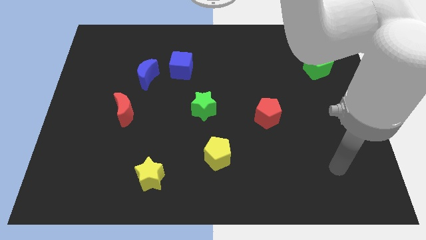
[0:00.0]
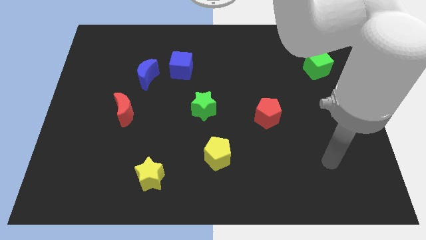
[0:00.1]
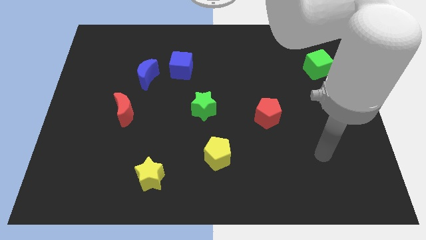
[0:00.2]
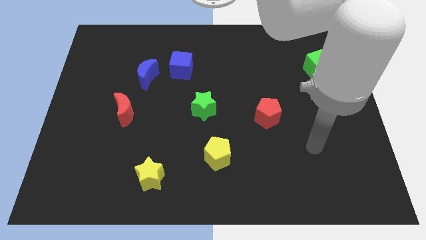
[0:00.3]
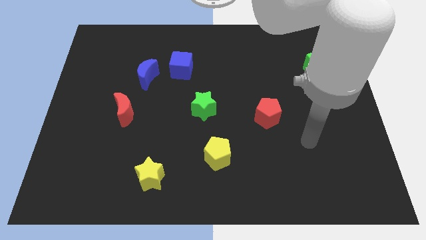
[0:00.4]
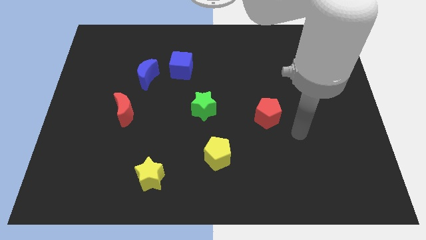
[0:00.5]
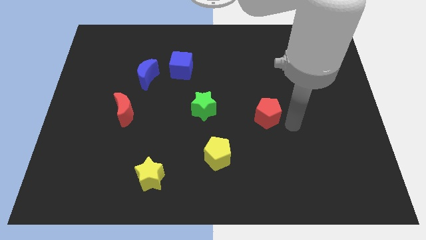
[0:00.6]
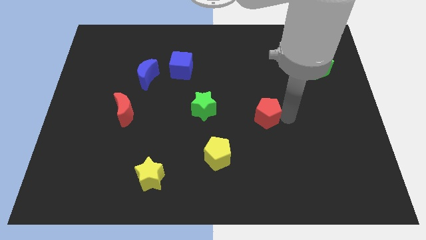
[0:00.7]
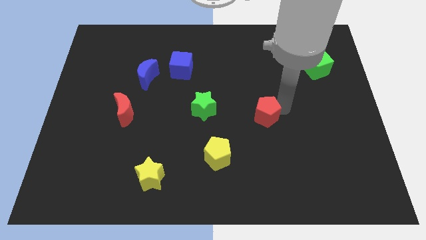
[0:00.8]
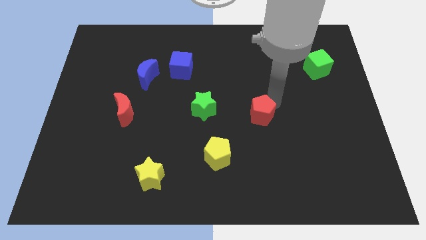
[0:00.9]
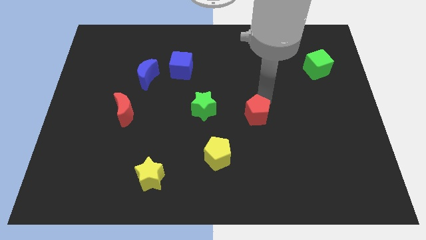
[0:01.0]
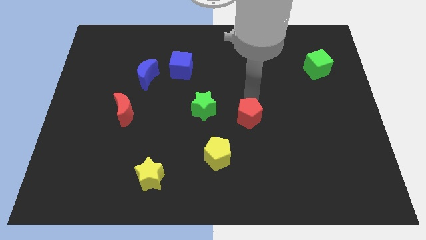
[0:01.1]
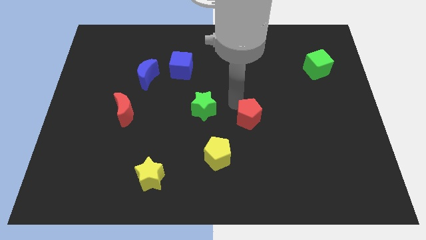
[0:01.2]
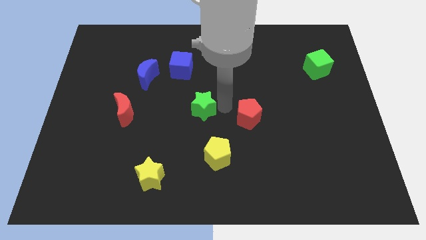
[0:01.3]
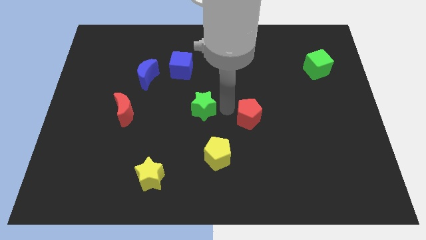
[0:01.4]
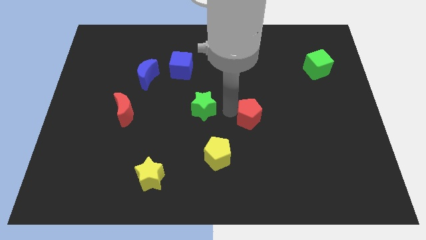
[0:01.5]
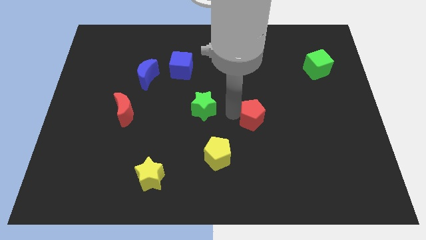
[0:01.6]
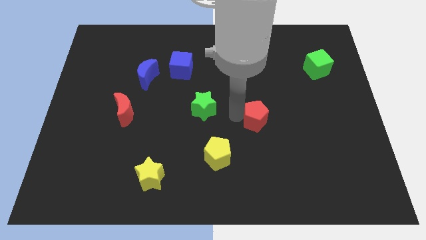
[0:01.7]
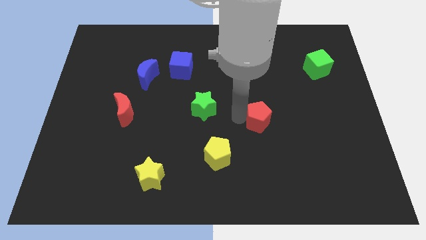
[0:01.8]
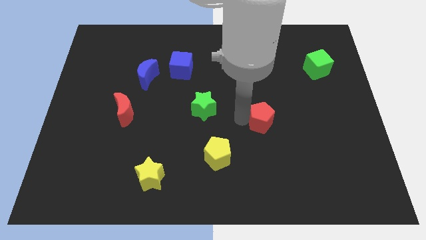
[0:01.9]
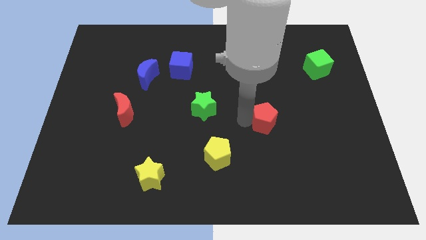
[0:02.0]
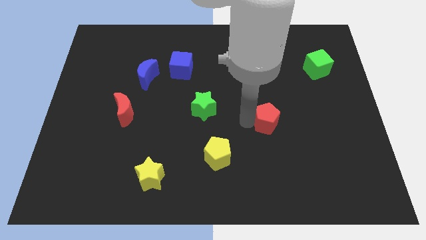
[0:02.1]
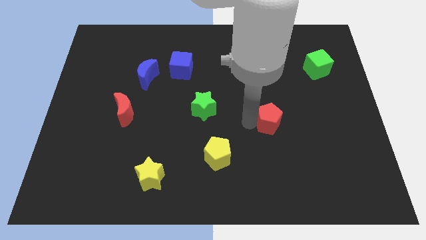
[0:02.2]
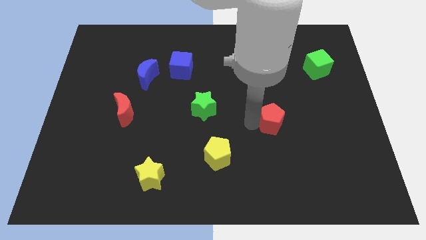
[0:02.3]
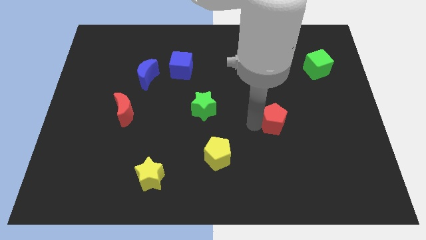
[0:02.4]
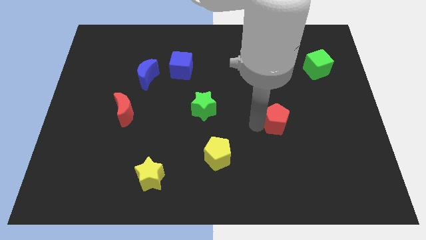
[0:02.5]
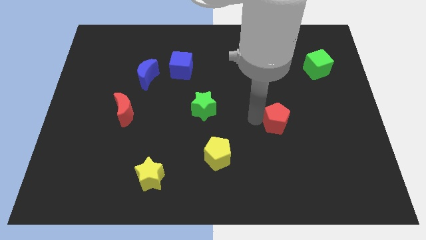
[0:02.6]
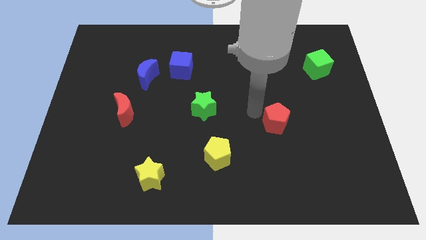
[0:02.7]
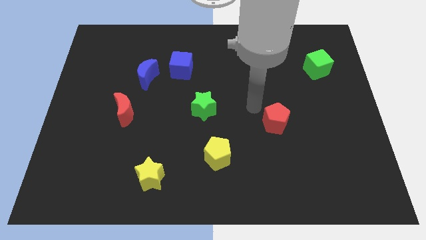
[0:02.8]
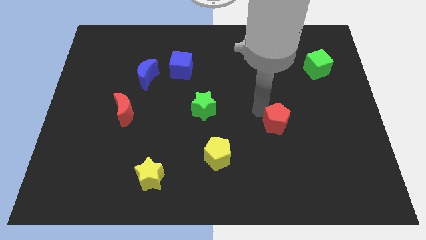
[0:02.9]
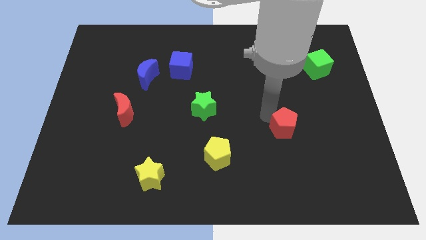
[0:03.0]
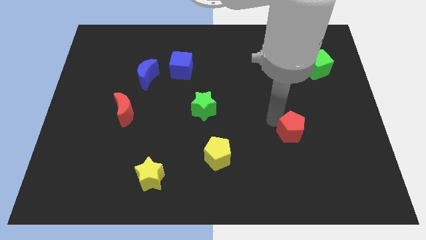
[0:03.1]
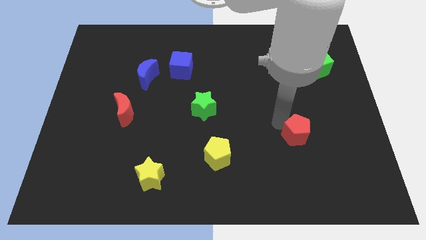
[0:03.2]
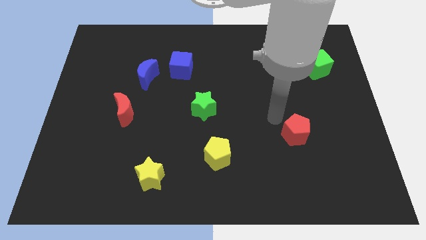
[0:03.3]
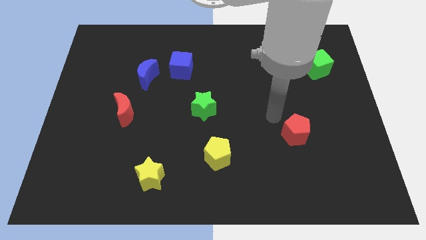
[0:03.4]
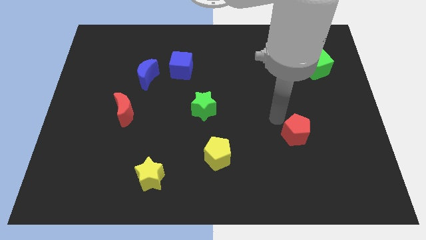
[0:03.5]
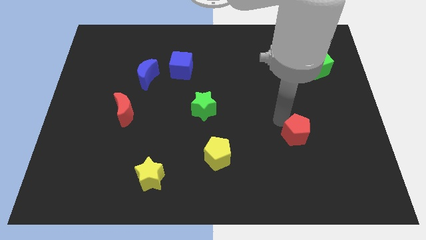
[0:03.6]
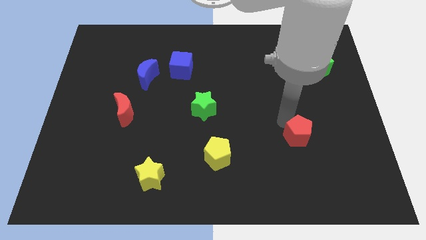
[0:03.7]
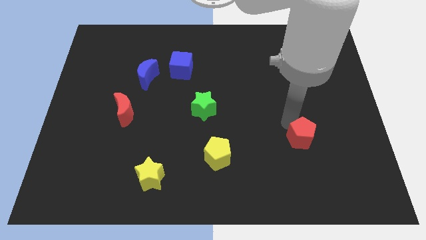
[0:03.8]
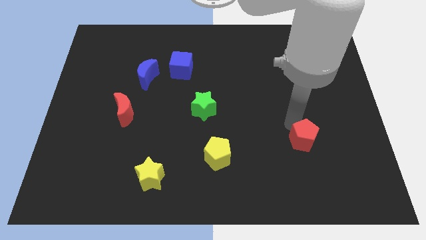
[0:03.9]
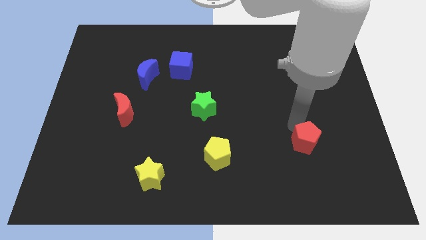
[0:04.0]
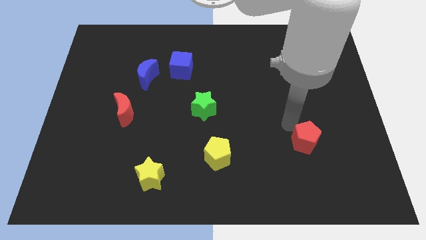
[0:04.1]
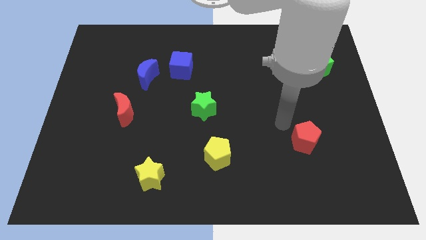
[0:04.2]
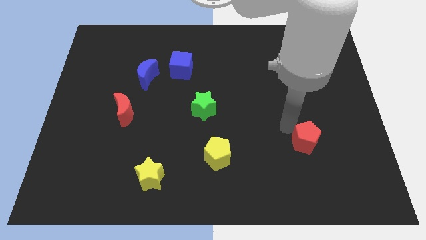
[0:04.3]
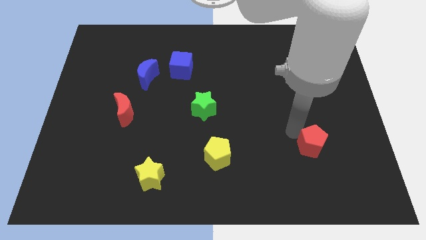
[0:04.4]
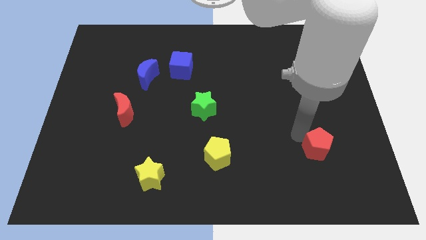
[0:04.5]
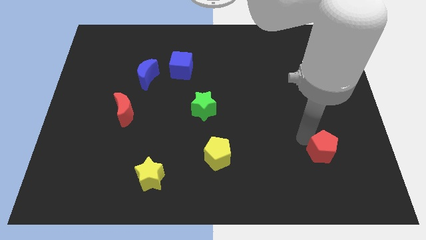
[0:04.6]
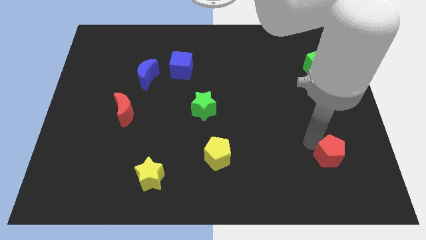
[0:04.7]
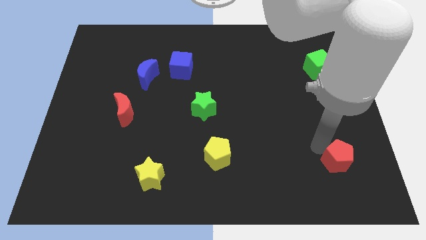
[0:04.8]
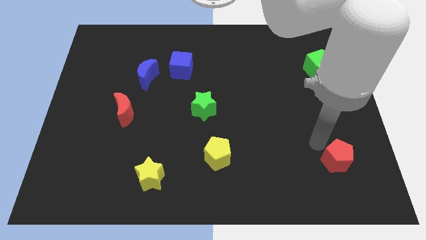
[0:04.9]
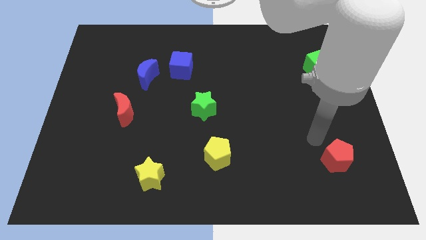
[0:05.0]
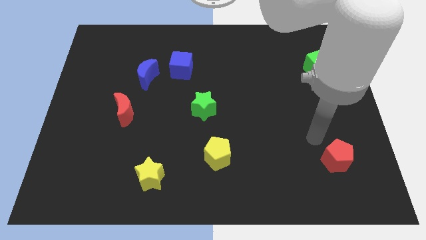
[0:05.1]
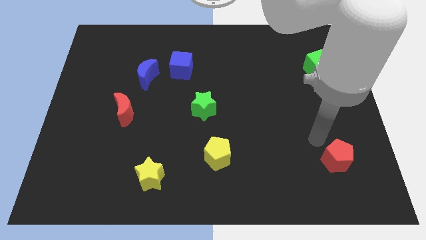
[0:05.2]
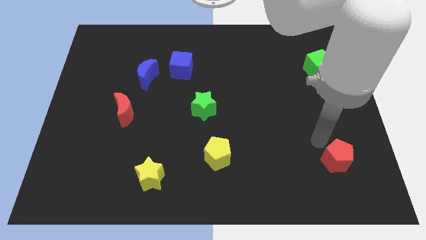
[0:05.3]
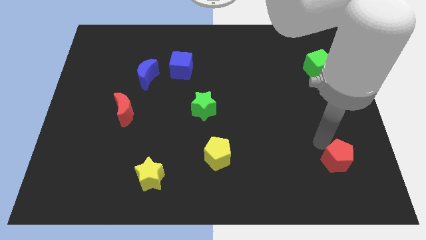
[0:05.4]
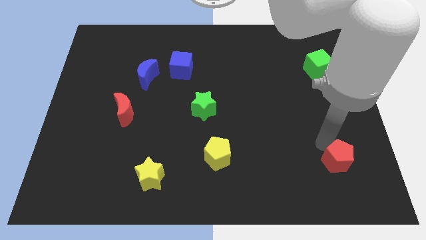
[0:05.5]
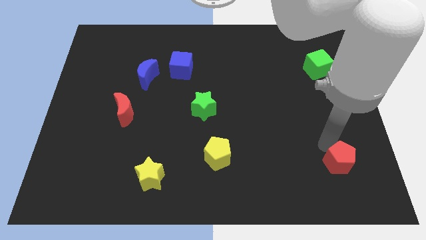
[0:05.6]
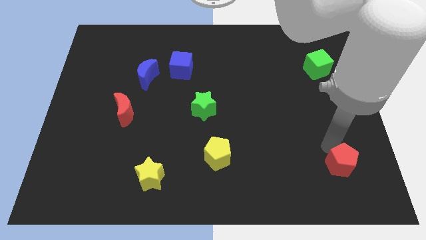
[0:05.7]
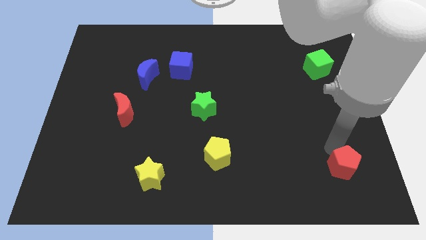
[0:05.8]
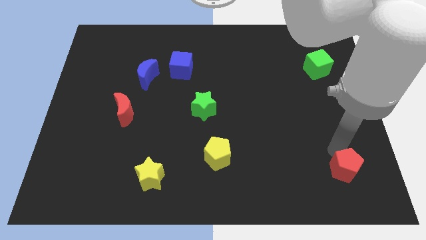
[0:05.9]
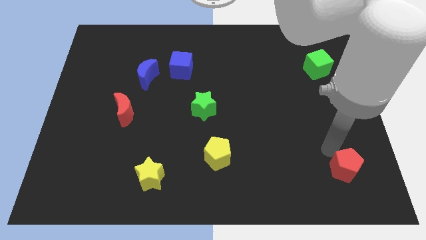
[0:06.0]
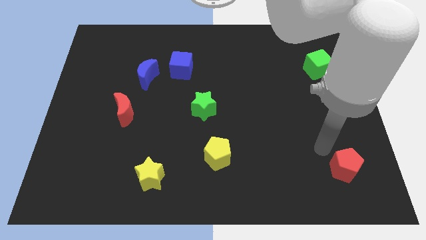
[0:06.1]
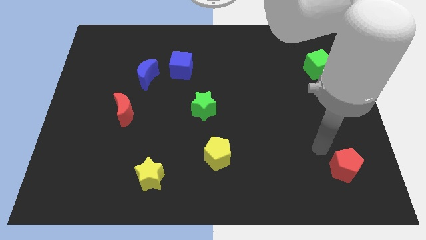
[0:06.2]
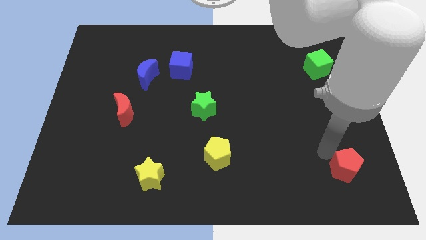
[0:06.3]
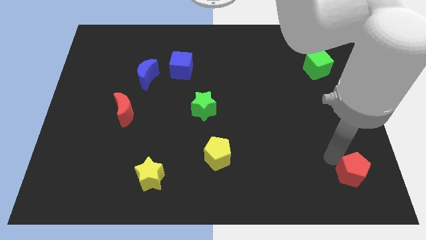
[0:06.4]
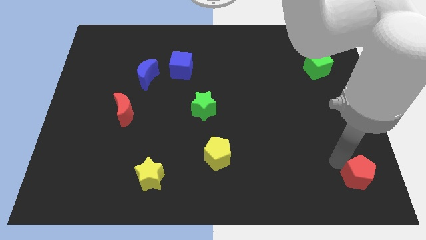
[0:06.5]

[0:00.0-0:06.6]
slide the red pentagon to the bottom right of the board
